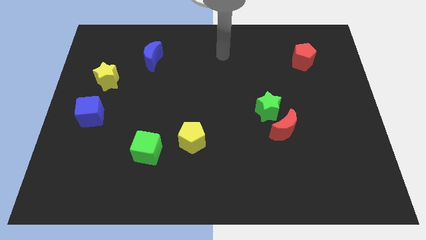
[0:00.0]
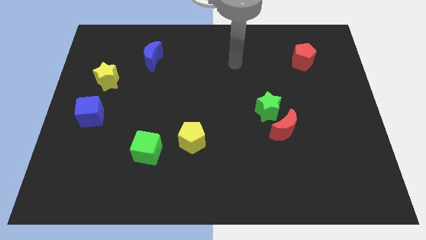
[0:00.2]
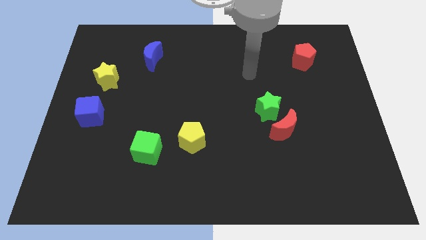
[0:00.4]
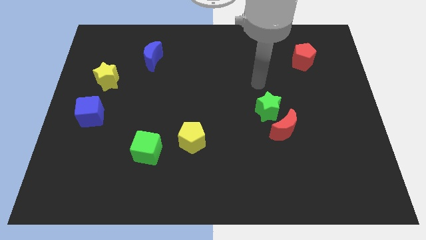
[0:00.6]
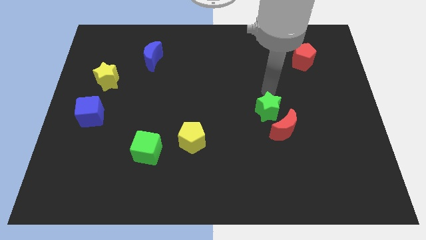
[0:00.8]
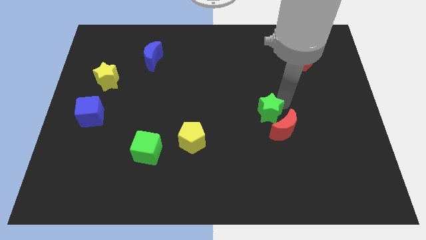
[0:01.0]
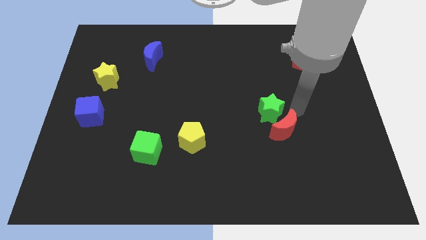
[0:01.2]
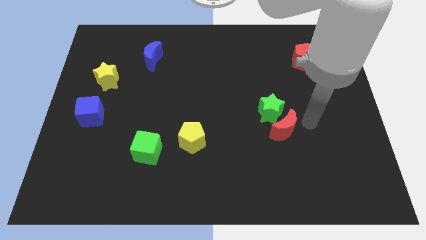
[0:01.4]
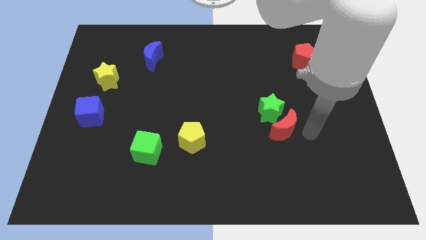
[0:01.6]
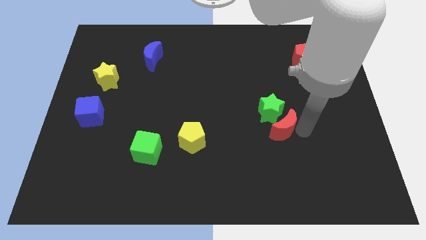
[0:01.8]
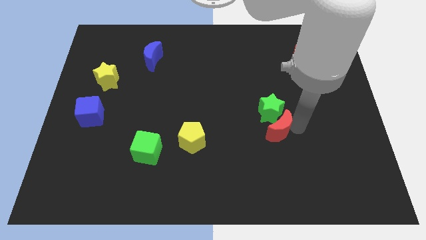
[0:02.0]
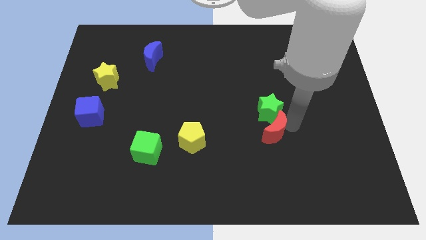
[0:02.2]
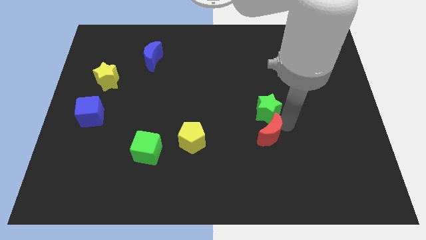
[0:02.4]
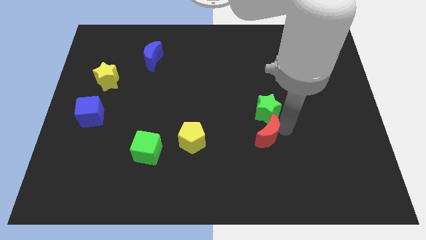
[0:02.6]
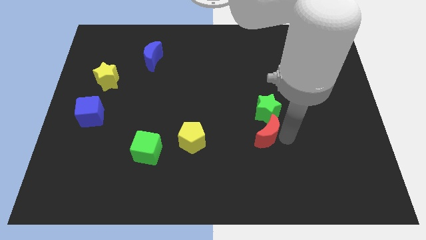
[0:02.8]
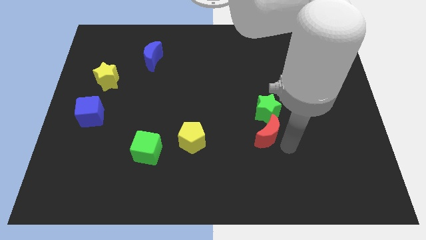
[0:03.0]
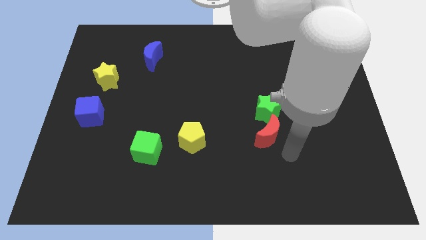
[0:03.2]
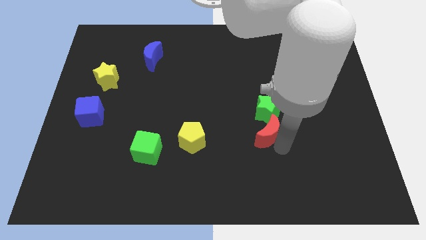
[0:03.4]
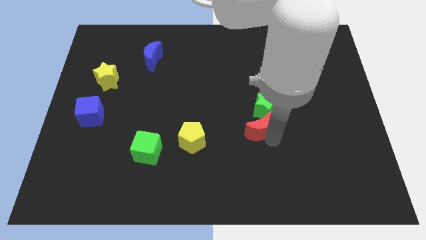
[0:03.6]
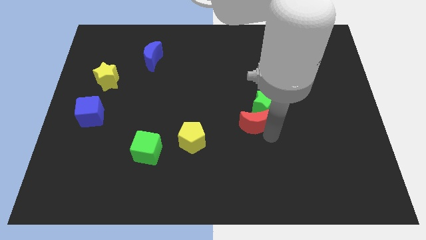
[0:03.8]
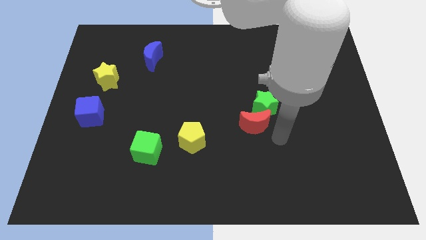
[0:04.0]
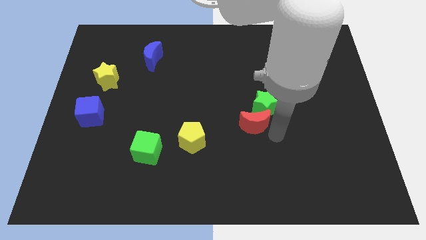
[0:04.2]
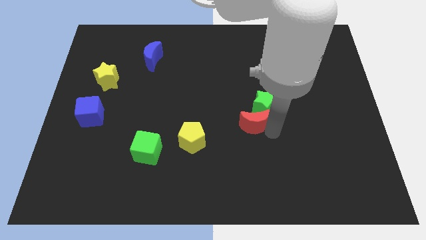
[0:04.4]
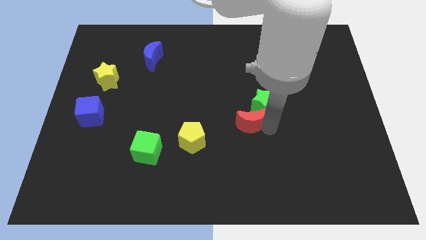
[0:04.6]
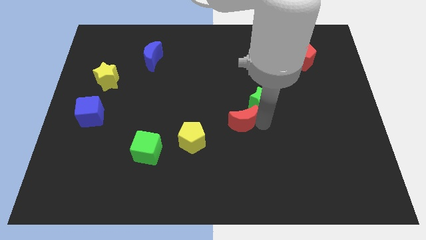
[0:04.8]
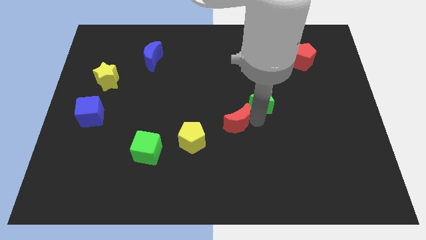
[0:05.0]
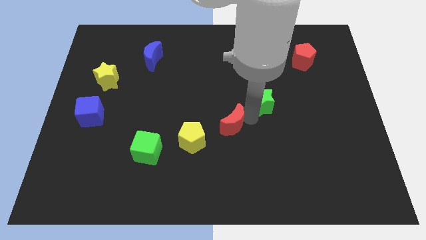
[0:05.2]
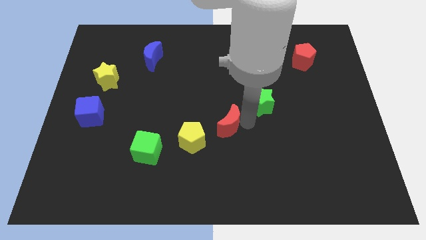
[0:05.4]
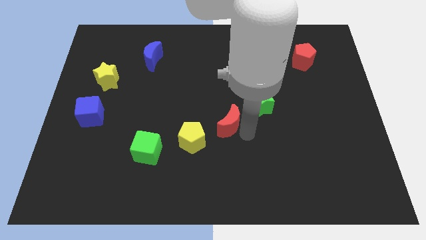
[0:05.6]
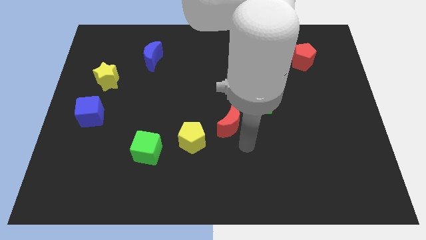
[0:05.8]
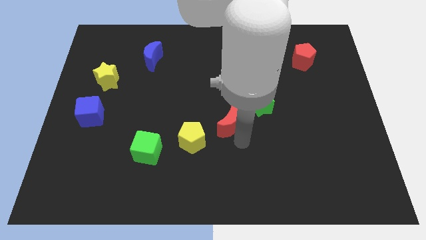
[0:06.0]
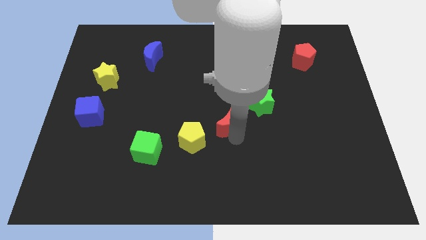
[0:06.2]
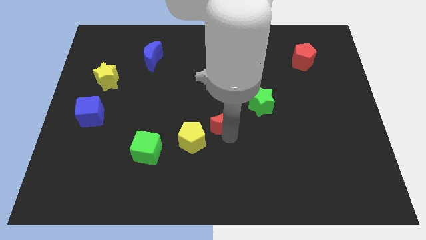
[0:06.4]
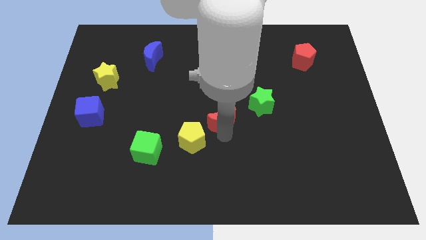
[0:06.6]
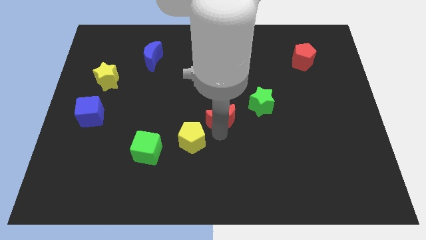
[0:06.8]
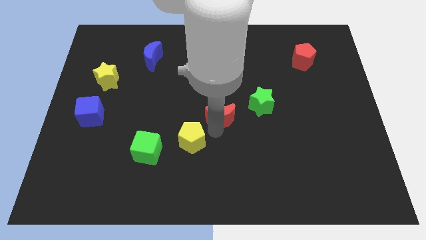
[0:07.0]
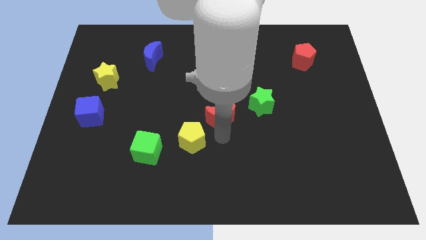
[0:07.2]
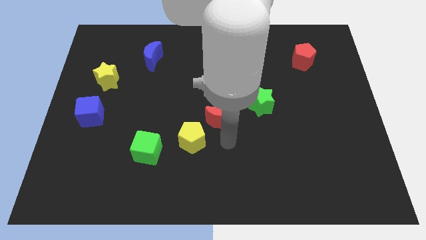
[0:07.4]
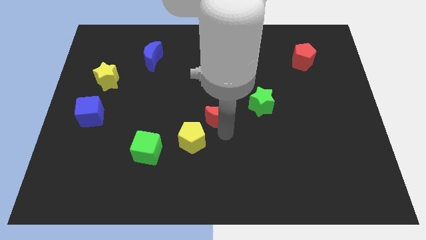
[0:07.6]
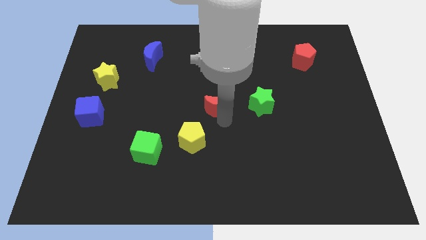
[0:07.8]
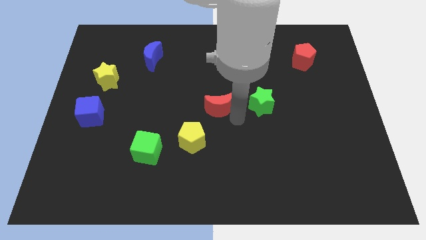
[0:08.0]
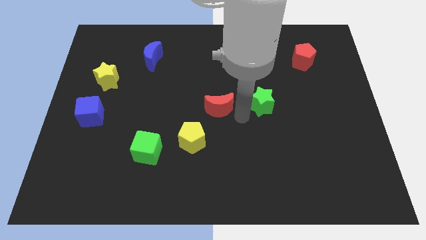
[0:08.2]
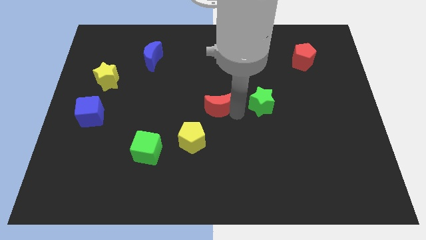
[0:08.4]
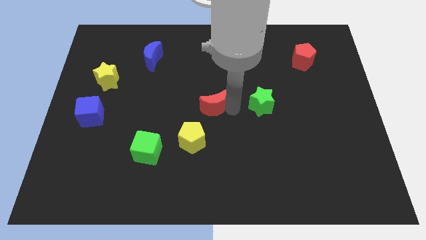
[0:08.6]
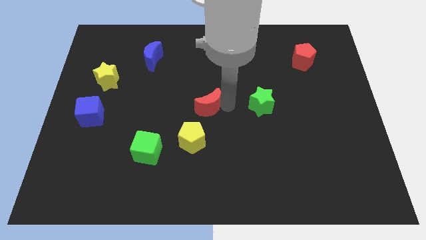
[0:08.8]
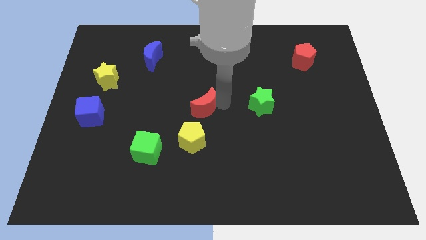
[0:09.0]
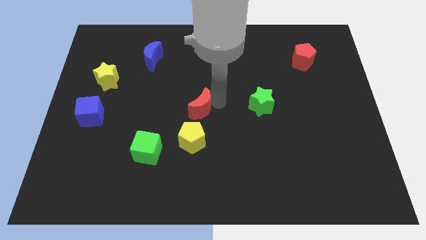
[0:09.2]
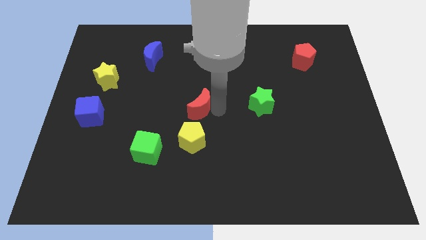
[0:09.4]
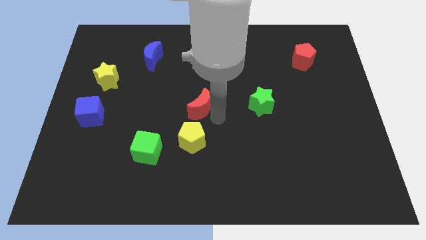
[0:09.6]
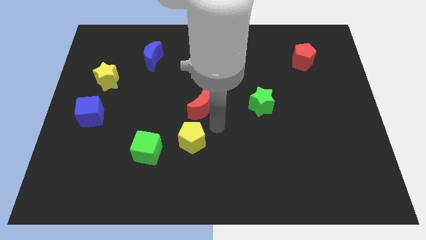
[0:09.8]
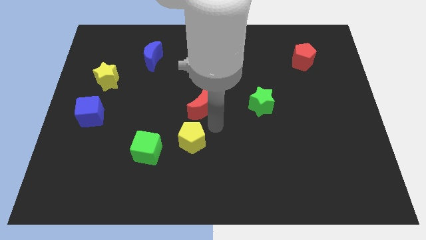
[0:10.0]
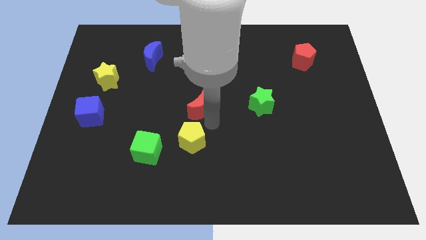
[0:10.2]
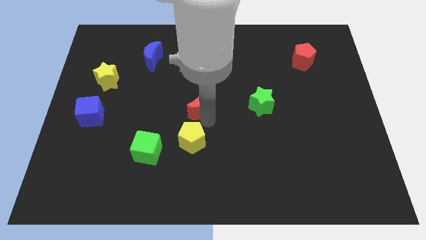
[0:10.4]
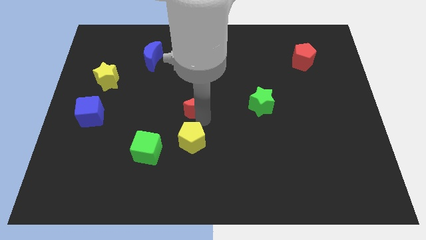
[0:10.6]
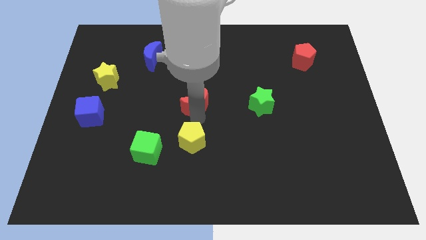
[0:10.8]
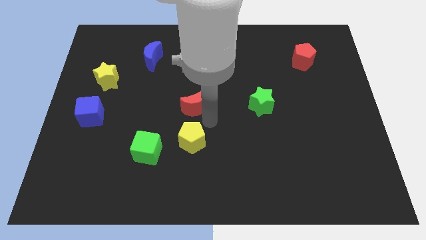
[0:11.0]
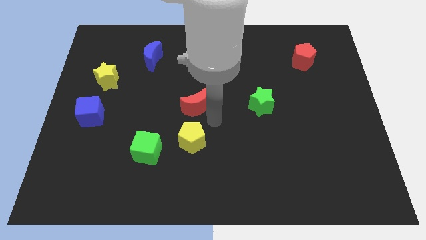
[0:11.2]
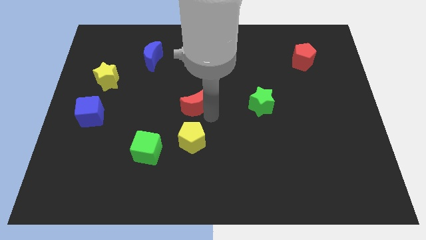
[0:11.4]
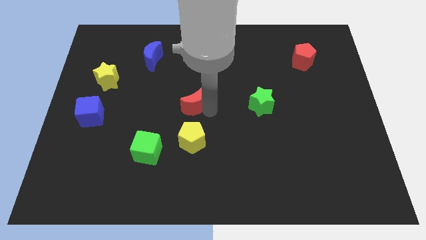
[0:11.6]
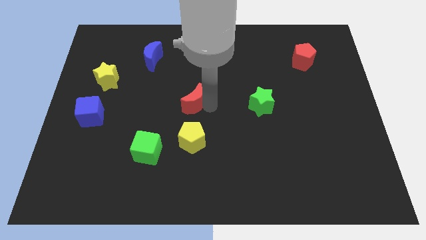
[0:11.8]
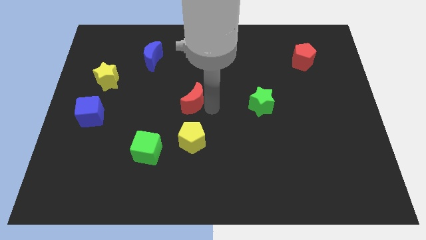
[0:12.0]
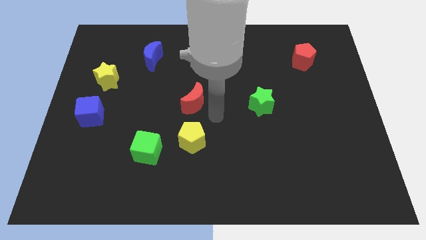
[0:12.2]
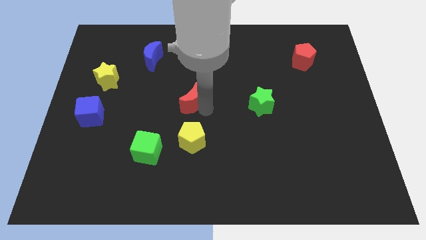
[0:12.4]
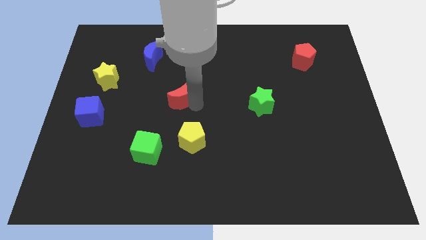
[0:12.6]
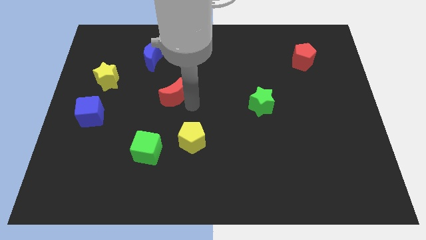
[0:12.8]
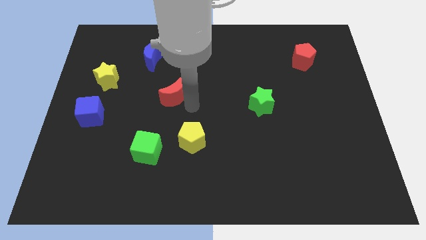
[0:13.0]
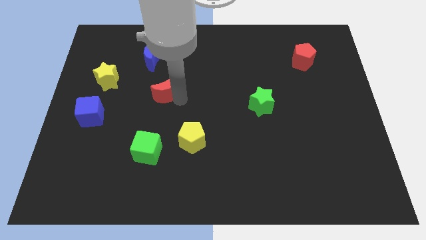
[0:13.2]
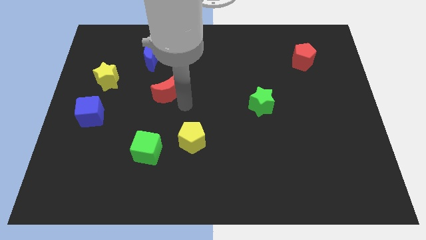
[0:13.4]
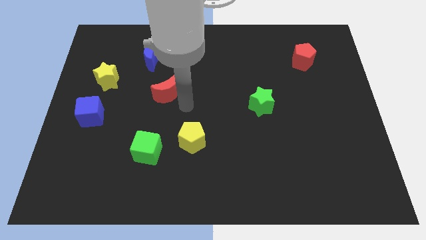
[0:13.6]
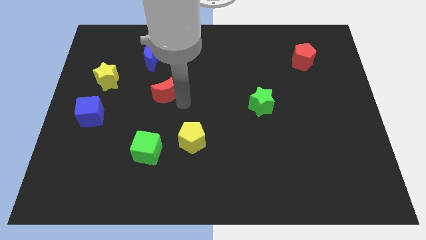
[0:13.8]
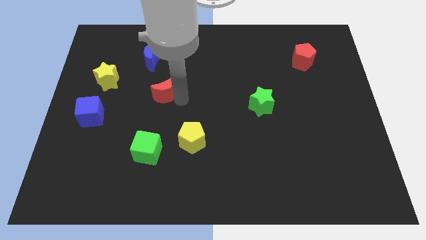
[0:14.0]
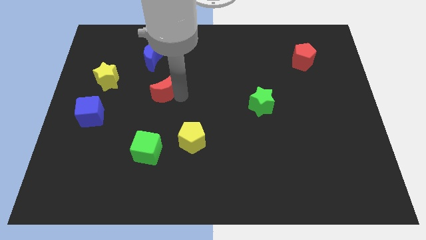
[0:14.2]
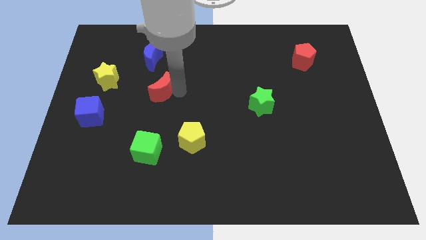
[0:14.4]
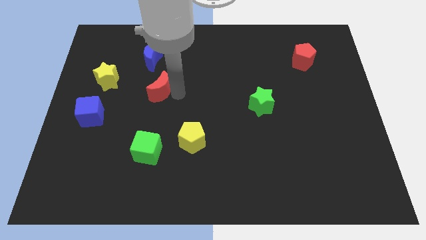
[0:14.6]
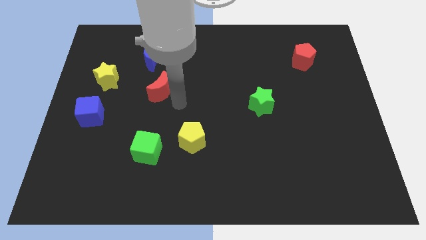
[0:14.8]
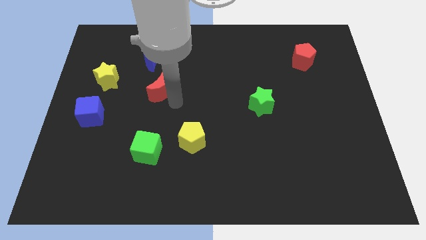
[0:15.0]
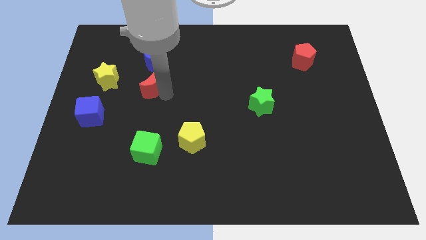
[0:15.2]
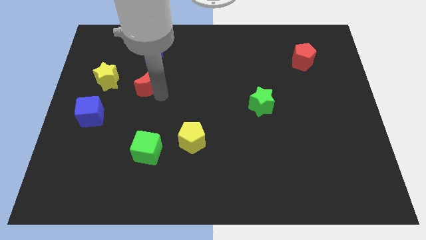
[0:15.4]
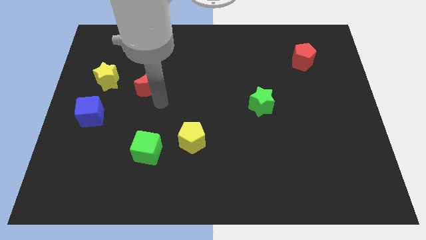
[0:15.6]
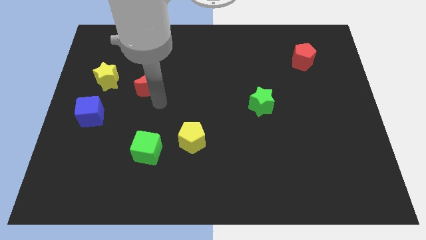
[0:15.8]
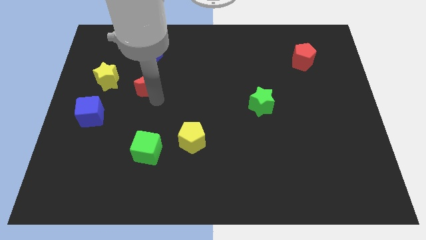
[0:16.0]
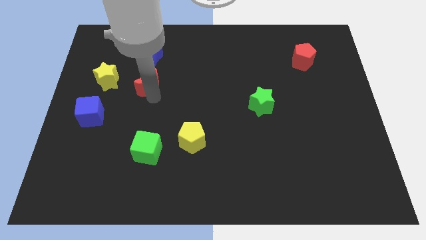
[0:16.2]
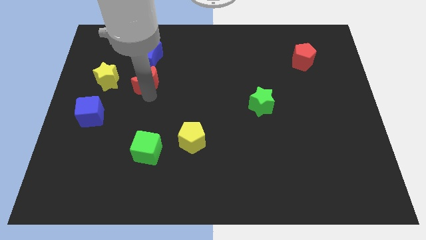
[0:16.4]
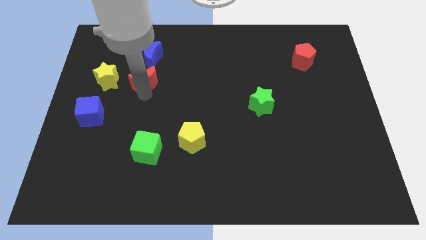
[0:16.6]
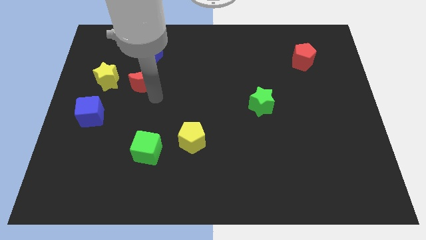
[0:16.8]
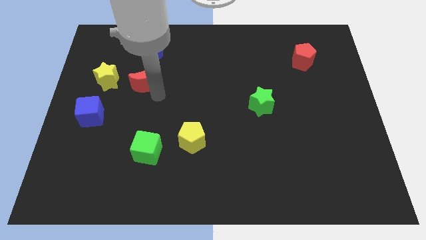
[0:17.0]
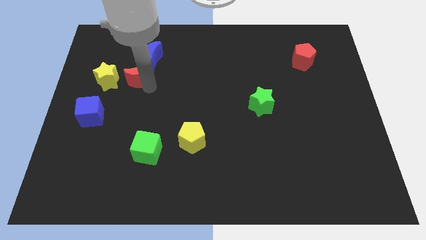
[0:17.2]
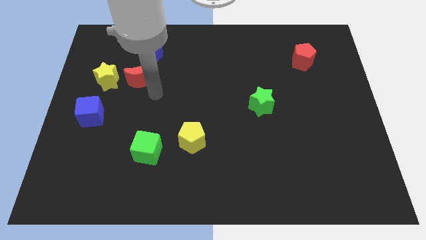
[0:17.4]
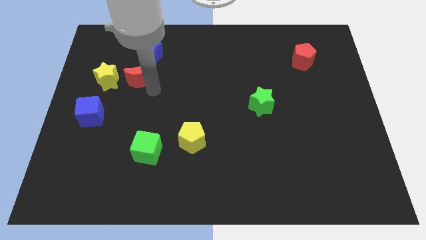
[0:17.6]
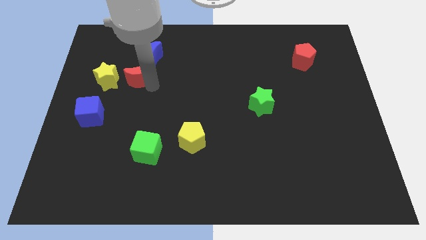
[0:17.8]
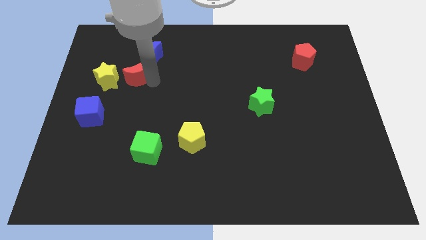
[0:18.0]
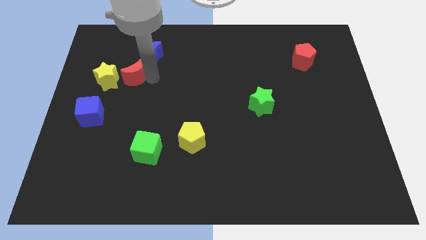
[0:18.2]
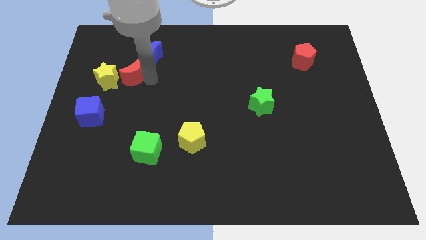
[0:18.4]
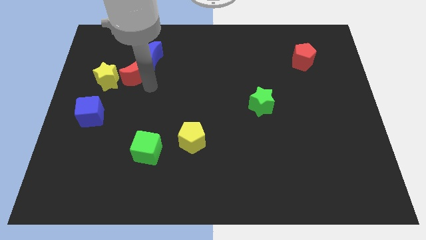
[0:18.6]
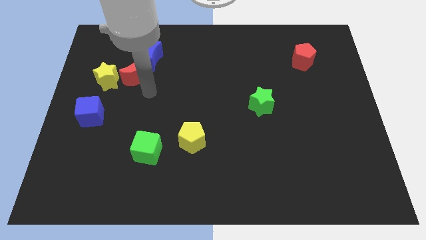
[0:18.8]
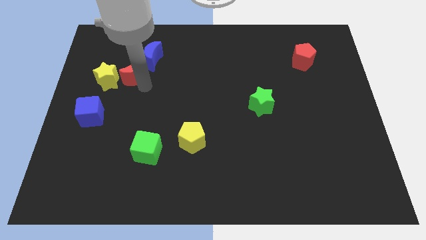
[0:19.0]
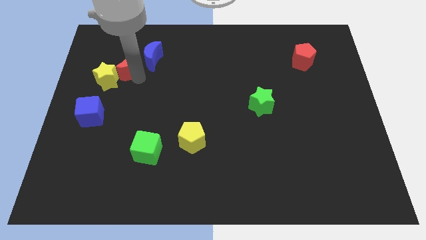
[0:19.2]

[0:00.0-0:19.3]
move the red moon to the left of the blue moon
